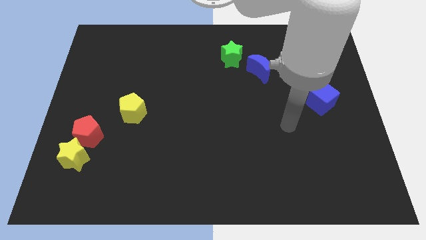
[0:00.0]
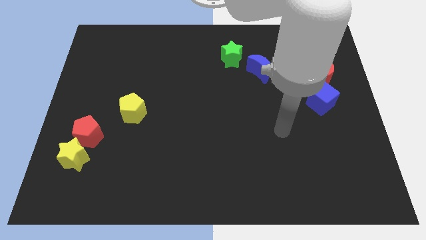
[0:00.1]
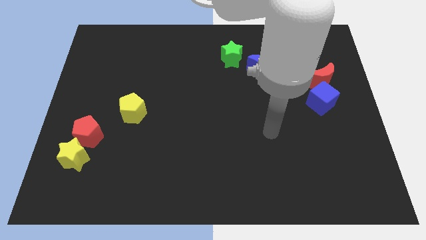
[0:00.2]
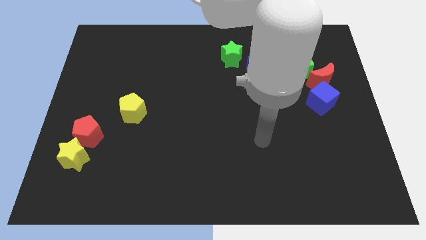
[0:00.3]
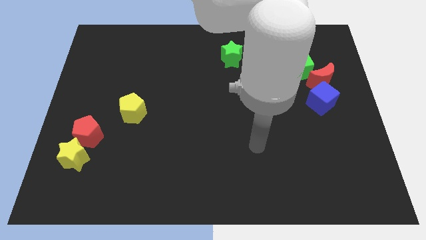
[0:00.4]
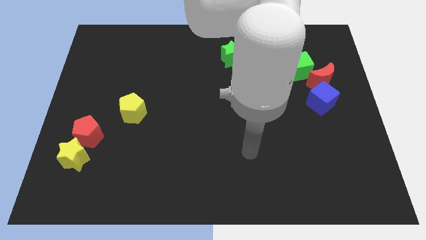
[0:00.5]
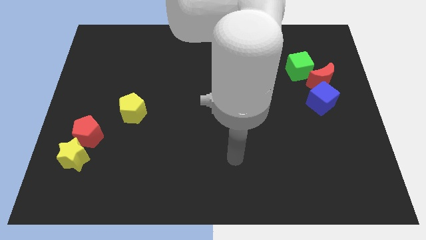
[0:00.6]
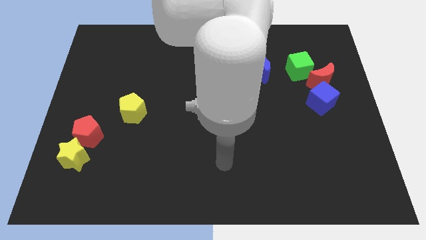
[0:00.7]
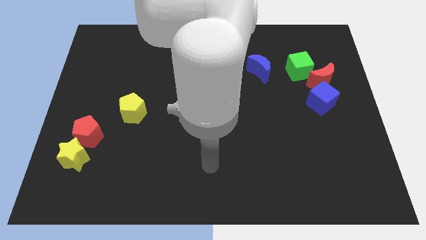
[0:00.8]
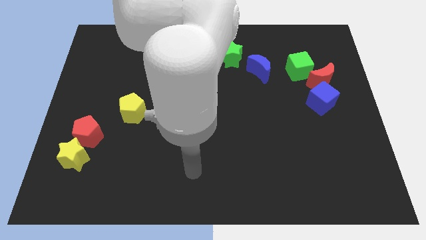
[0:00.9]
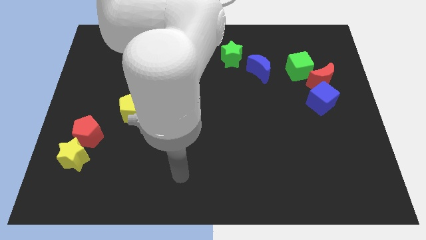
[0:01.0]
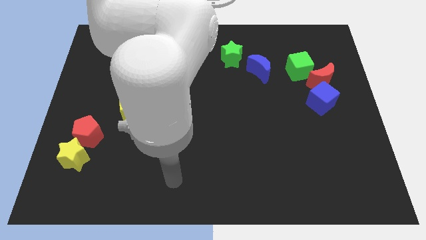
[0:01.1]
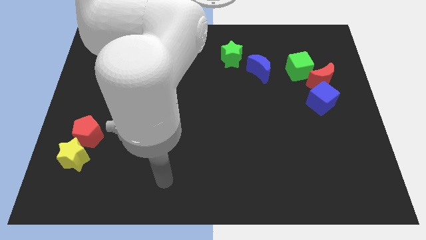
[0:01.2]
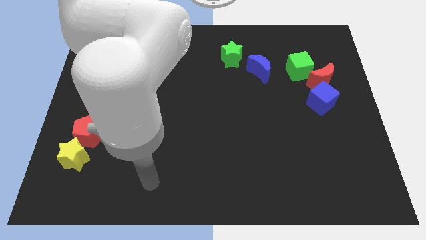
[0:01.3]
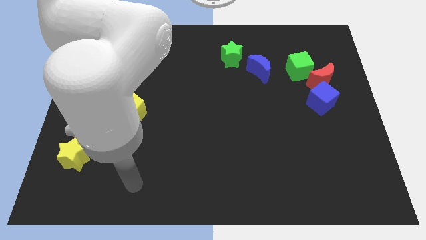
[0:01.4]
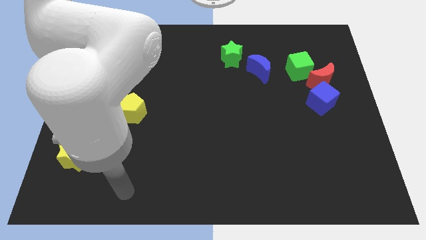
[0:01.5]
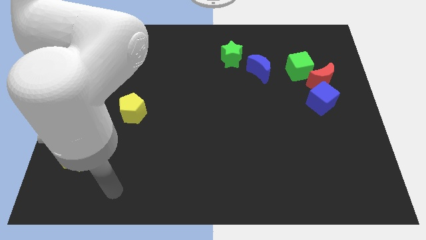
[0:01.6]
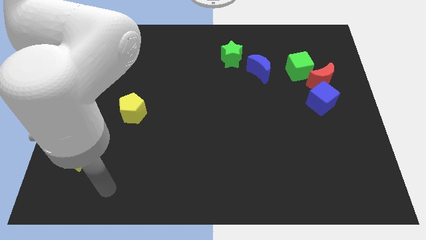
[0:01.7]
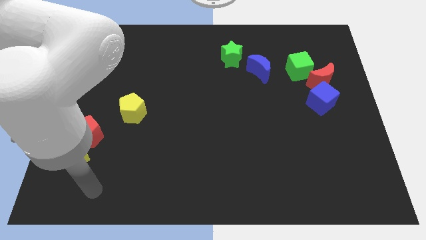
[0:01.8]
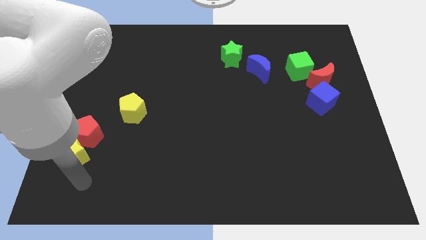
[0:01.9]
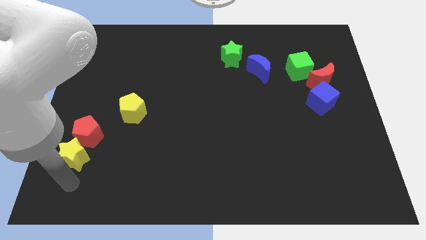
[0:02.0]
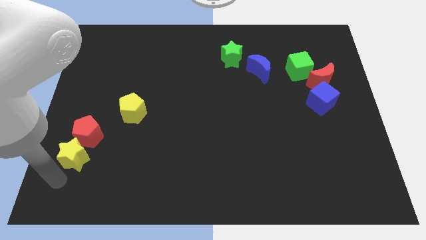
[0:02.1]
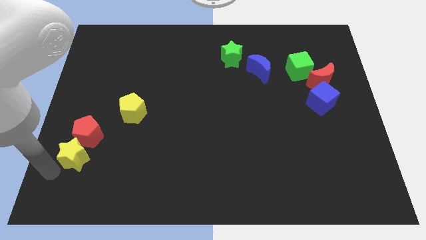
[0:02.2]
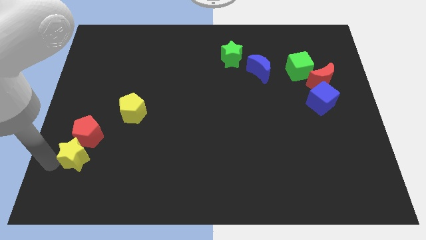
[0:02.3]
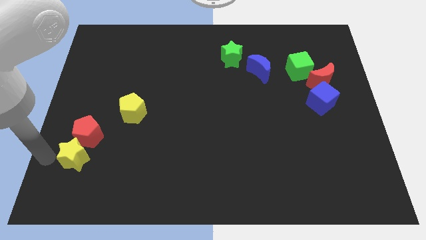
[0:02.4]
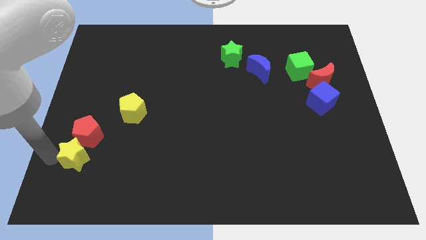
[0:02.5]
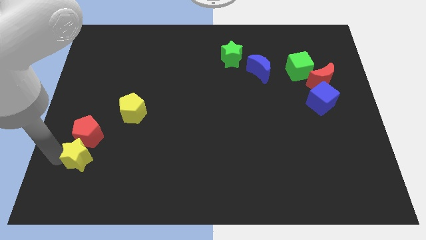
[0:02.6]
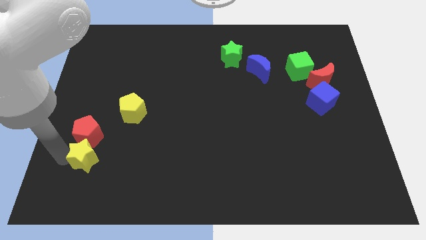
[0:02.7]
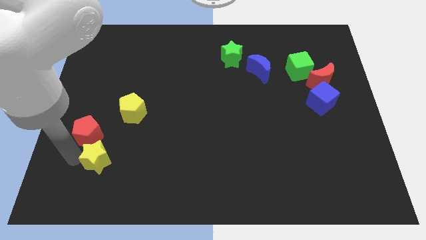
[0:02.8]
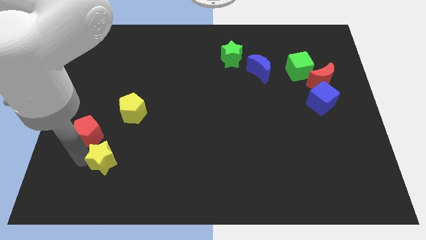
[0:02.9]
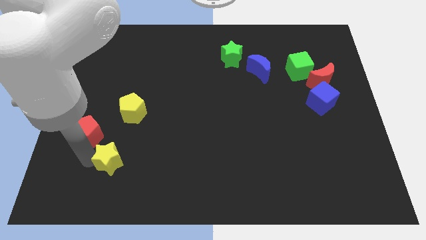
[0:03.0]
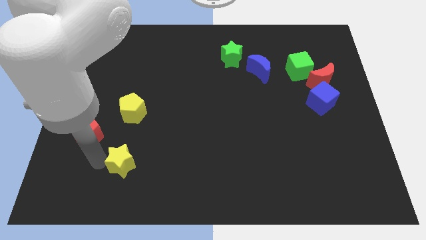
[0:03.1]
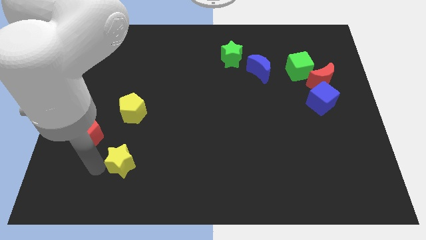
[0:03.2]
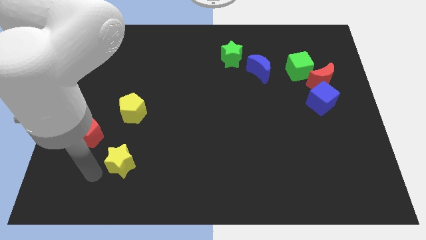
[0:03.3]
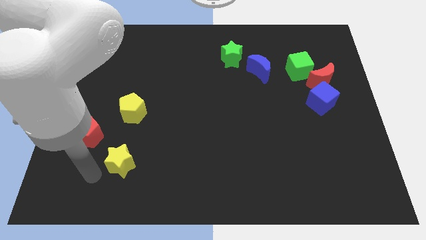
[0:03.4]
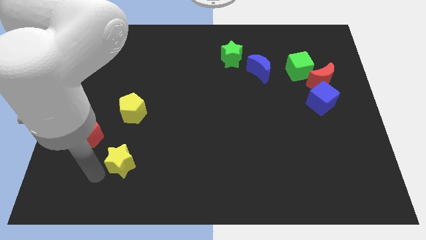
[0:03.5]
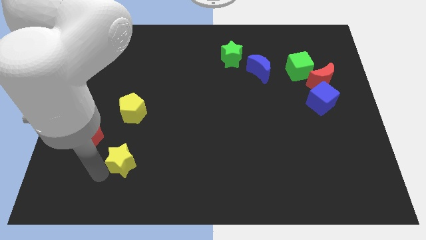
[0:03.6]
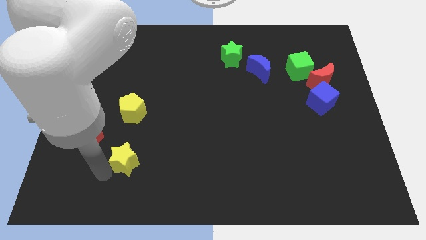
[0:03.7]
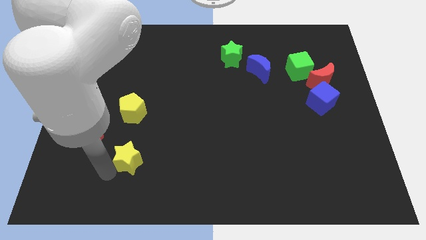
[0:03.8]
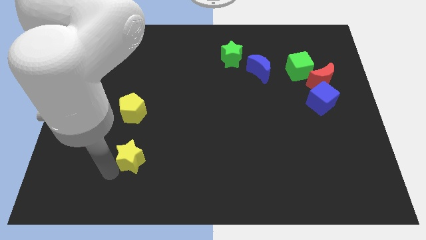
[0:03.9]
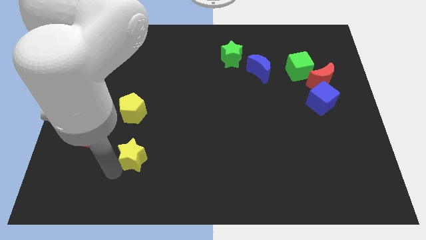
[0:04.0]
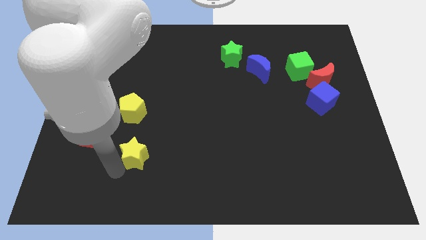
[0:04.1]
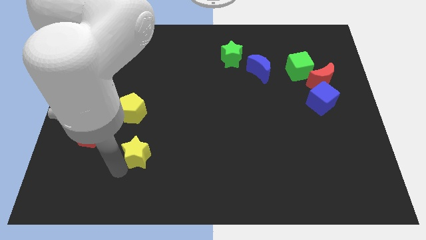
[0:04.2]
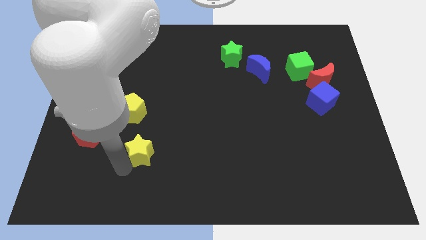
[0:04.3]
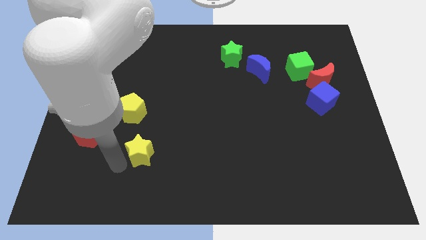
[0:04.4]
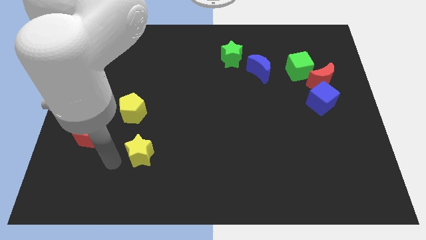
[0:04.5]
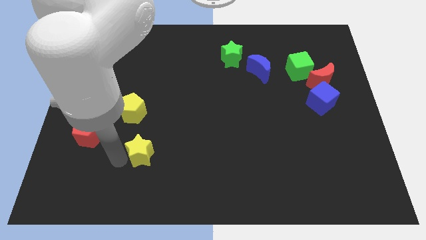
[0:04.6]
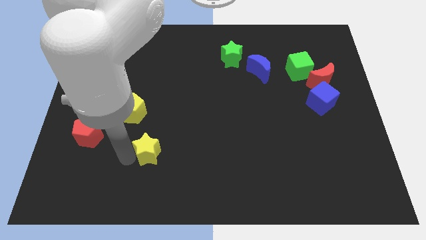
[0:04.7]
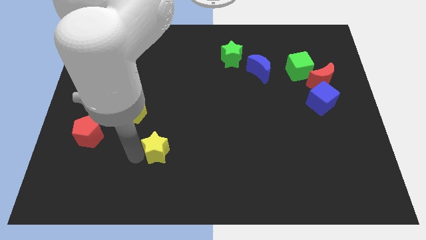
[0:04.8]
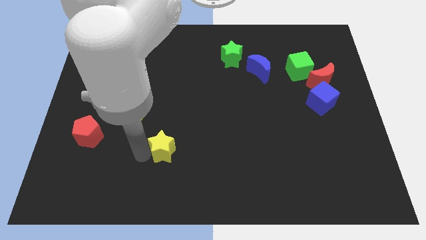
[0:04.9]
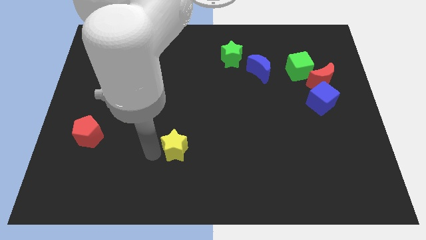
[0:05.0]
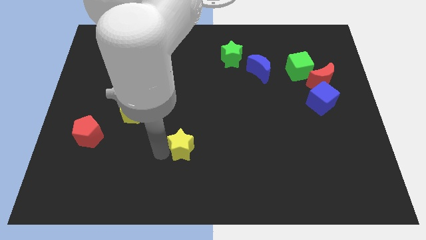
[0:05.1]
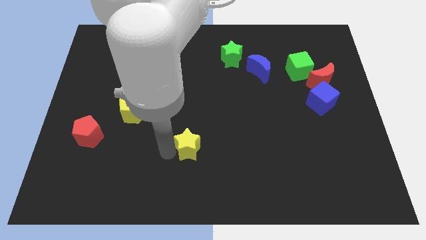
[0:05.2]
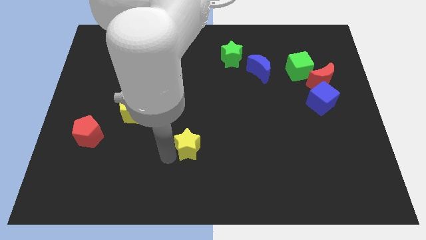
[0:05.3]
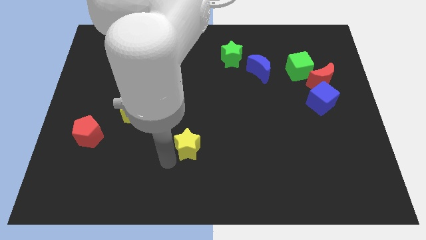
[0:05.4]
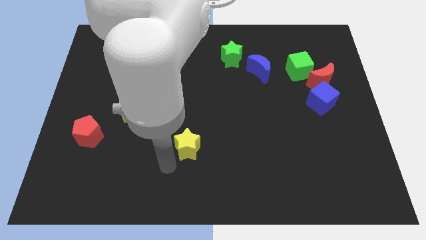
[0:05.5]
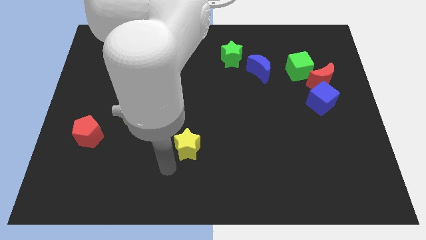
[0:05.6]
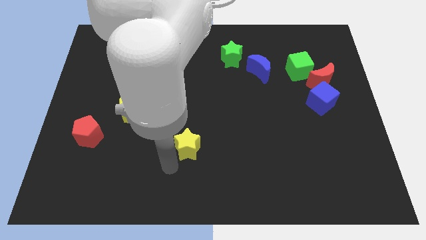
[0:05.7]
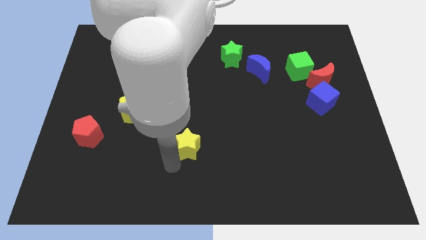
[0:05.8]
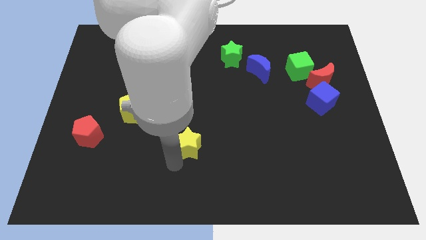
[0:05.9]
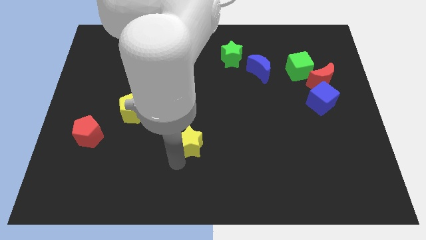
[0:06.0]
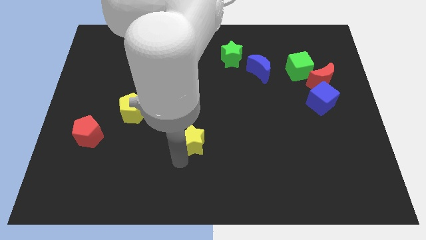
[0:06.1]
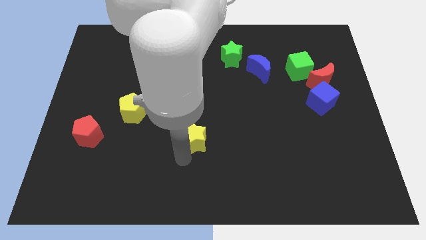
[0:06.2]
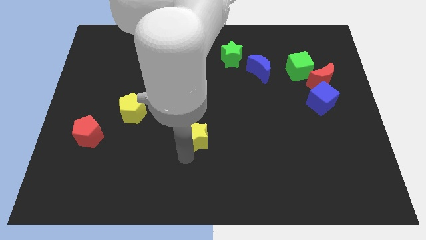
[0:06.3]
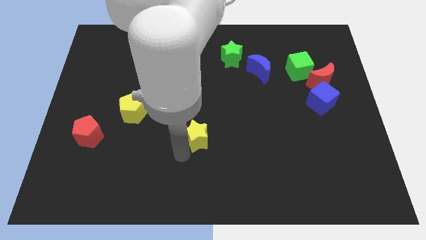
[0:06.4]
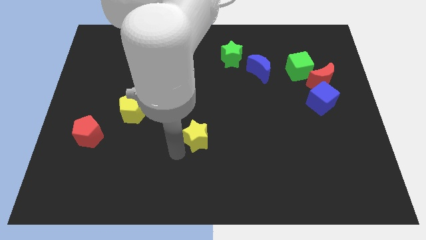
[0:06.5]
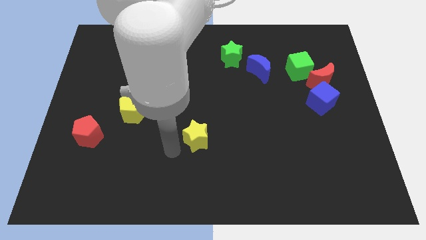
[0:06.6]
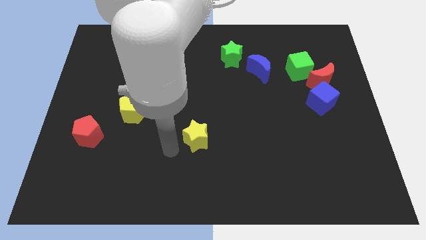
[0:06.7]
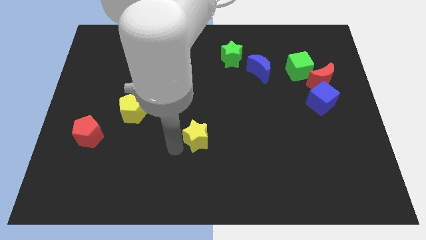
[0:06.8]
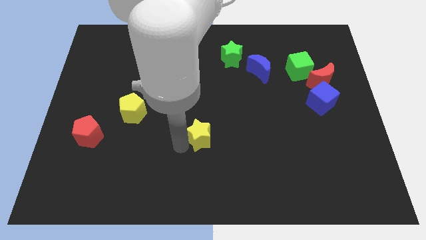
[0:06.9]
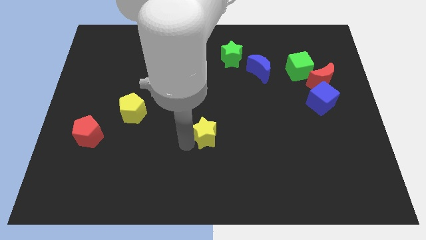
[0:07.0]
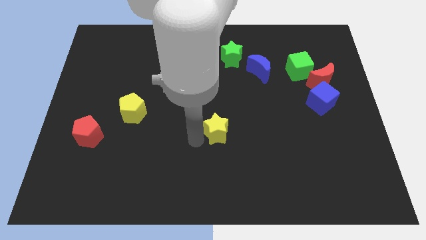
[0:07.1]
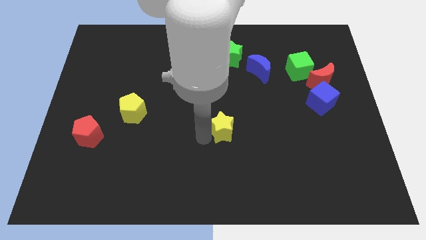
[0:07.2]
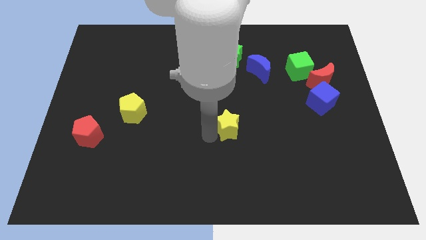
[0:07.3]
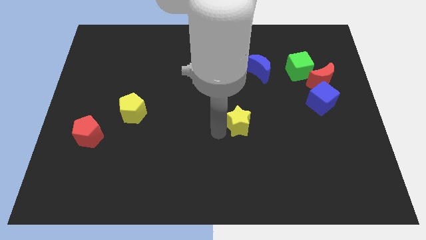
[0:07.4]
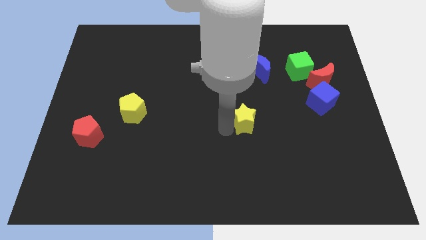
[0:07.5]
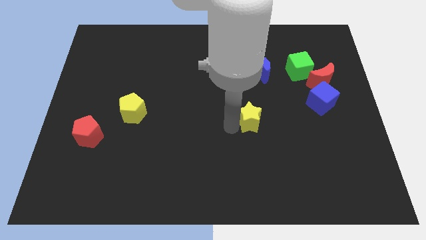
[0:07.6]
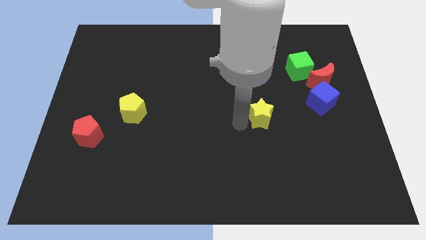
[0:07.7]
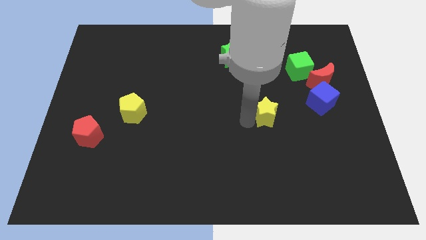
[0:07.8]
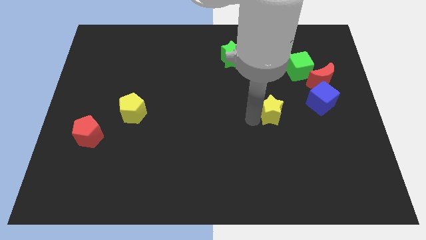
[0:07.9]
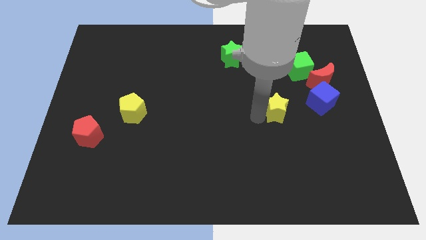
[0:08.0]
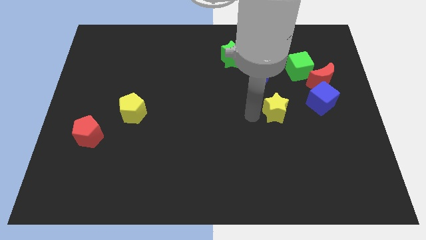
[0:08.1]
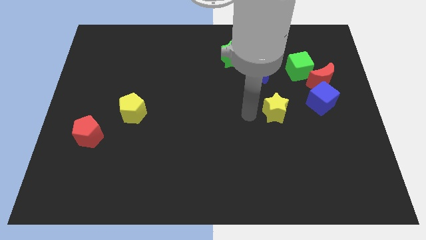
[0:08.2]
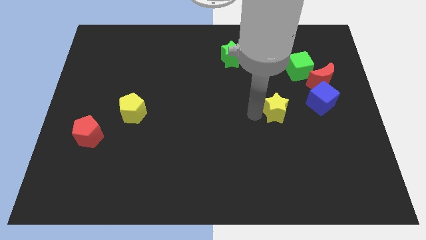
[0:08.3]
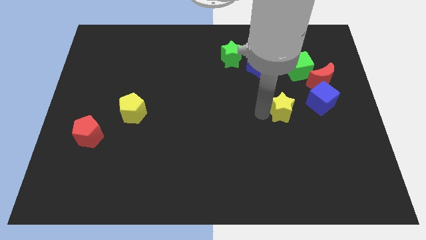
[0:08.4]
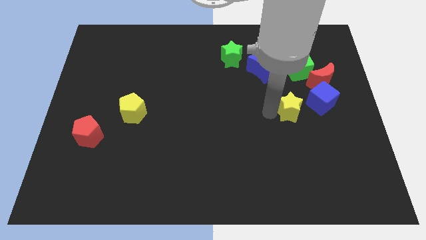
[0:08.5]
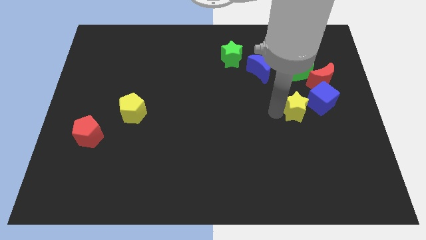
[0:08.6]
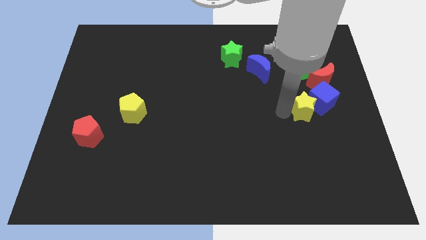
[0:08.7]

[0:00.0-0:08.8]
move the yellow star next to the blue cube
